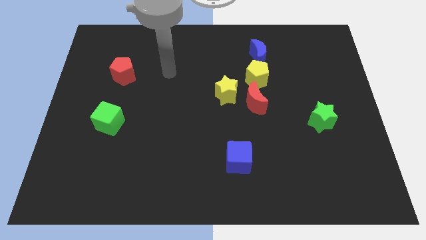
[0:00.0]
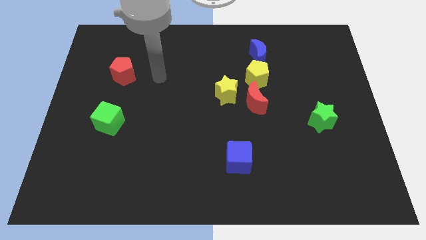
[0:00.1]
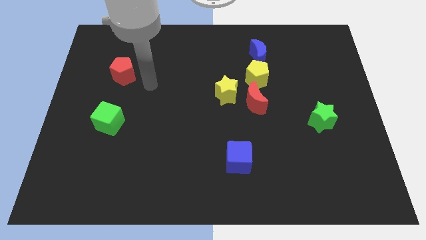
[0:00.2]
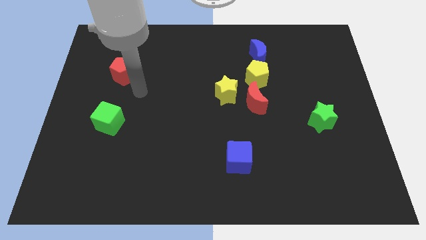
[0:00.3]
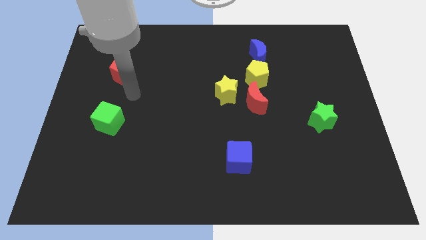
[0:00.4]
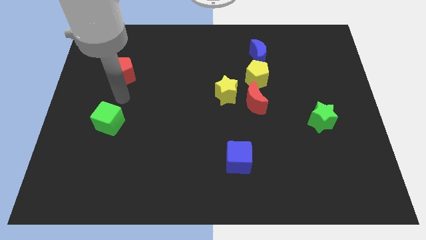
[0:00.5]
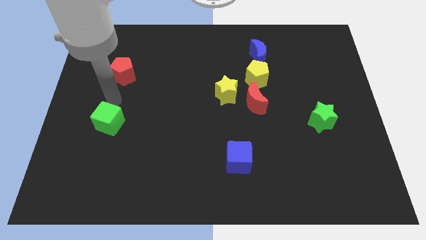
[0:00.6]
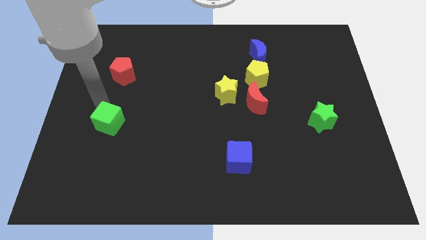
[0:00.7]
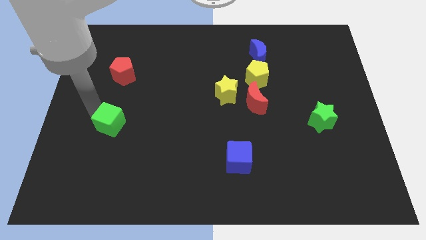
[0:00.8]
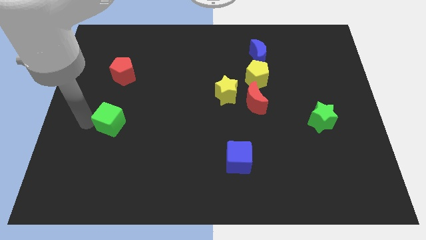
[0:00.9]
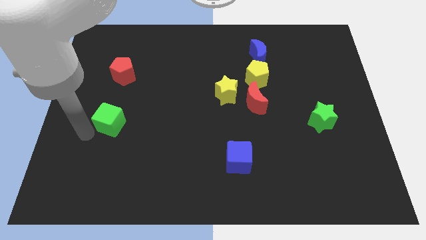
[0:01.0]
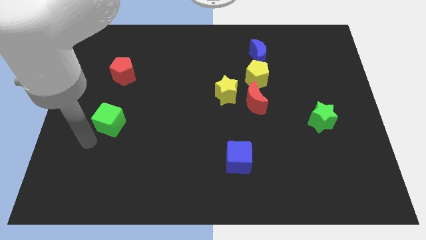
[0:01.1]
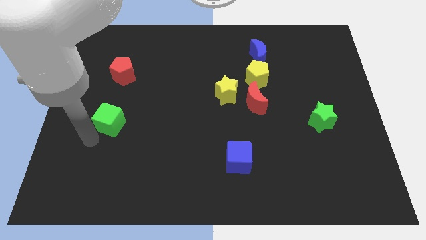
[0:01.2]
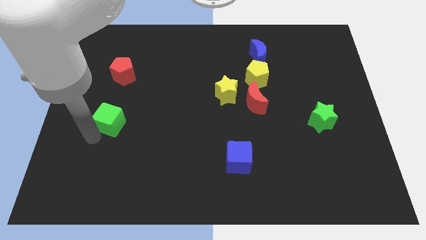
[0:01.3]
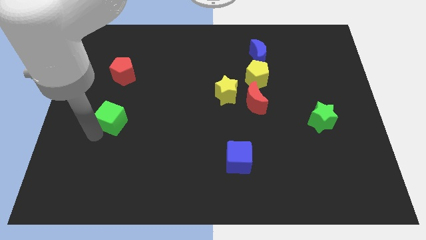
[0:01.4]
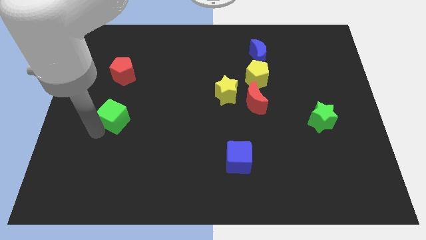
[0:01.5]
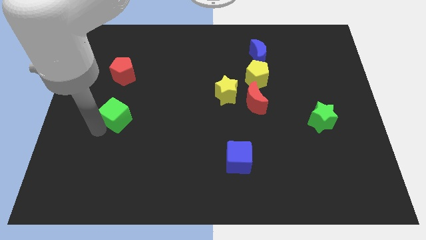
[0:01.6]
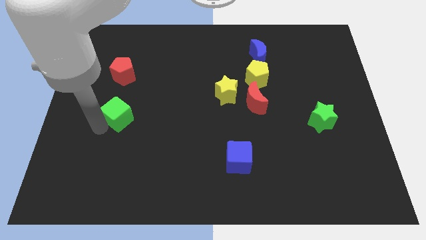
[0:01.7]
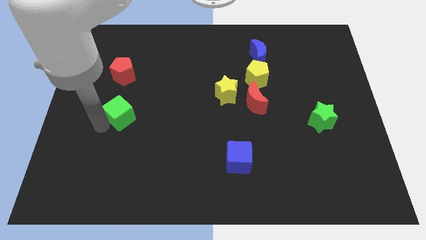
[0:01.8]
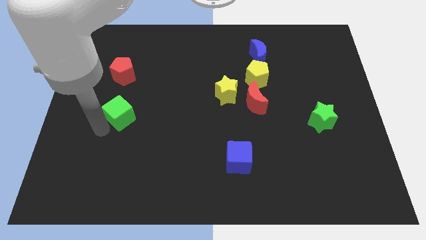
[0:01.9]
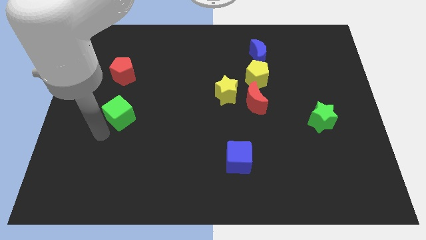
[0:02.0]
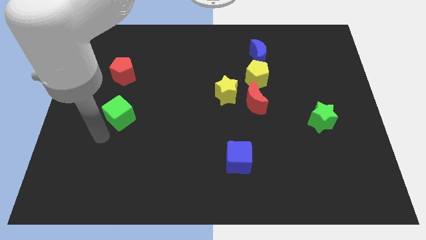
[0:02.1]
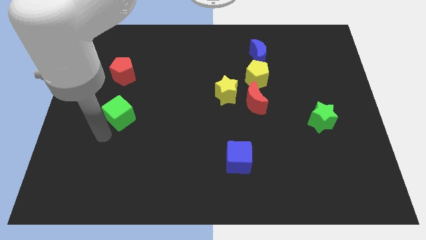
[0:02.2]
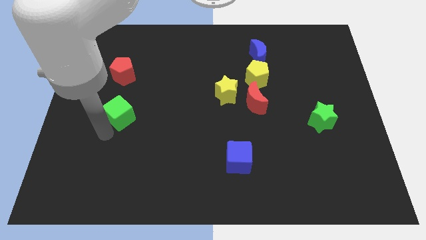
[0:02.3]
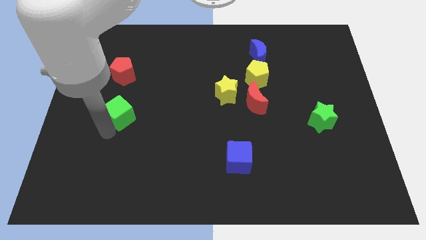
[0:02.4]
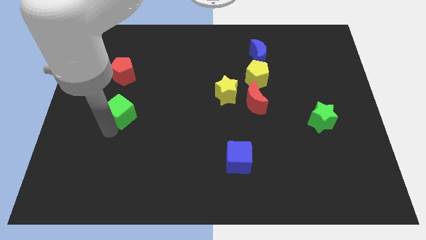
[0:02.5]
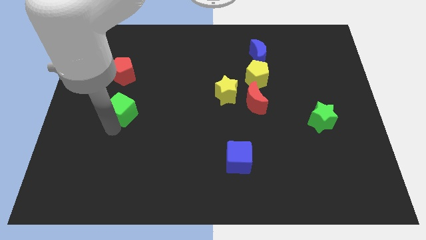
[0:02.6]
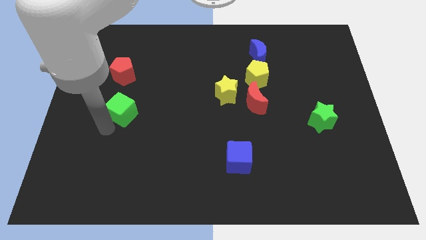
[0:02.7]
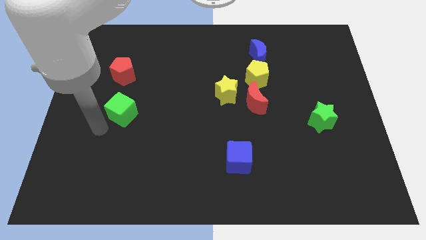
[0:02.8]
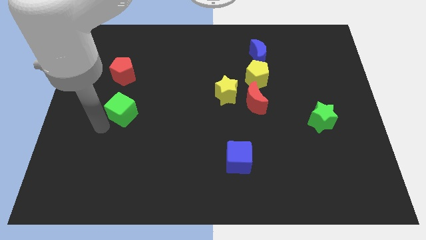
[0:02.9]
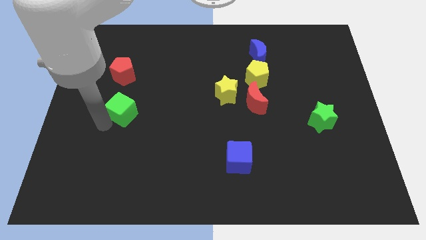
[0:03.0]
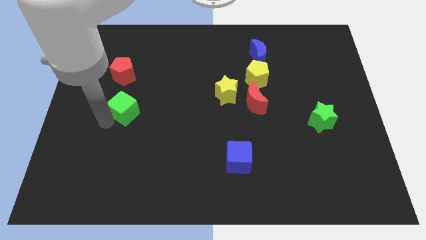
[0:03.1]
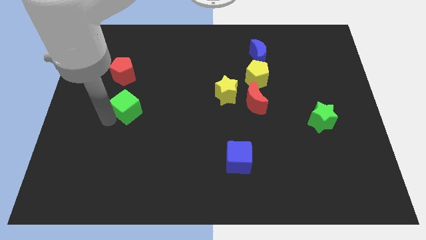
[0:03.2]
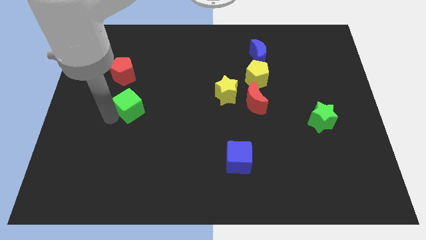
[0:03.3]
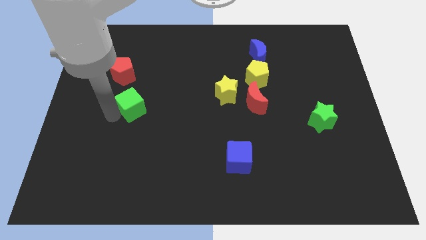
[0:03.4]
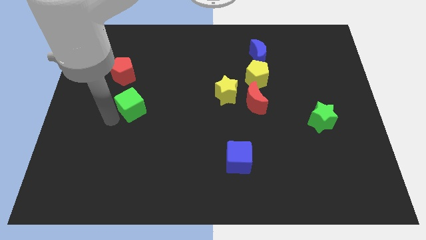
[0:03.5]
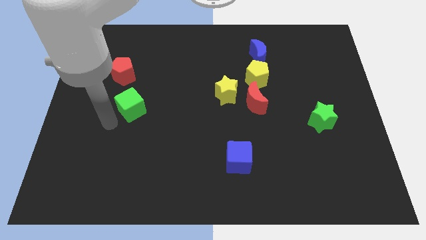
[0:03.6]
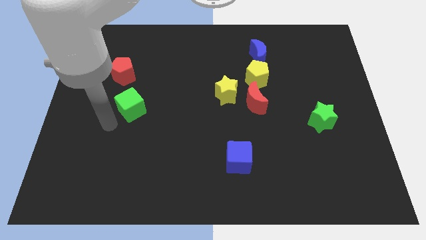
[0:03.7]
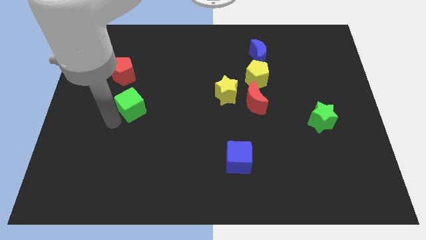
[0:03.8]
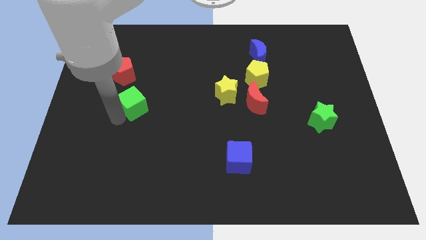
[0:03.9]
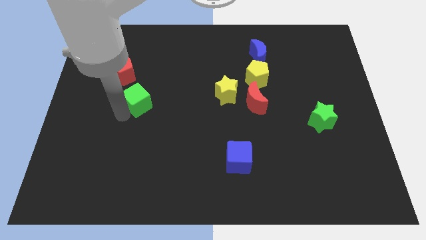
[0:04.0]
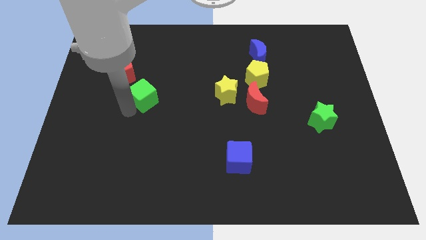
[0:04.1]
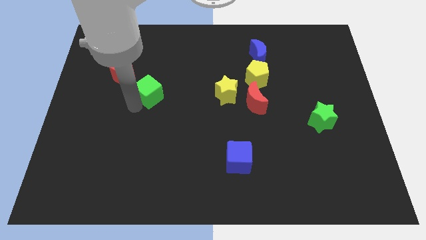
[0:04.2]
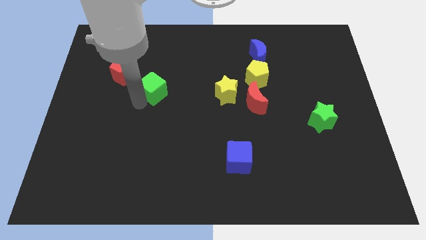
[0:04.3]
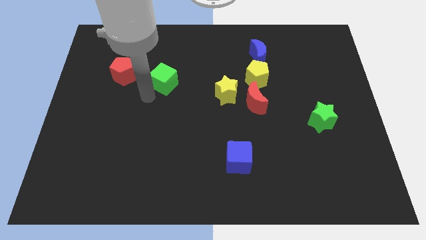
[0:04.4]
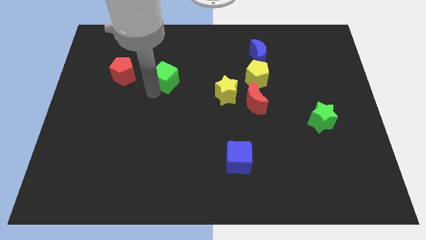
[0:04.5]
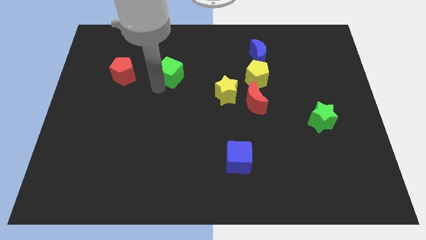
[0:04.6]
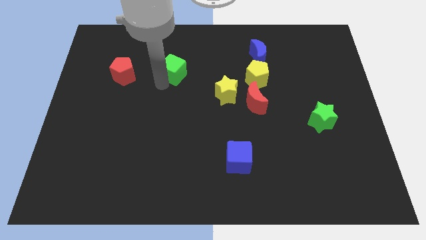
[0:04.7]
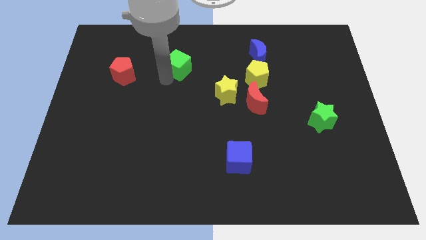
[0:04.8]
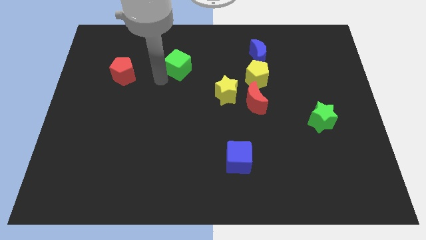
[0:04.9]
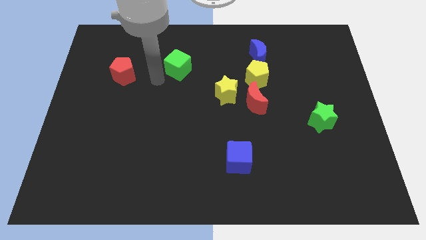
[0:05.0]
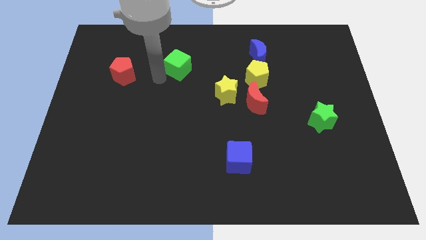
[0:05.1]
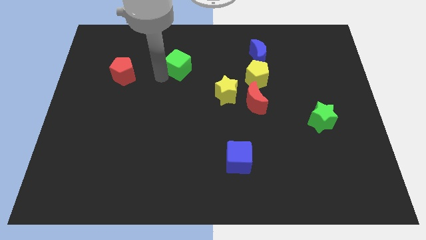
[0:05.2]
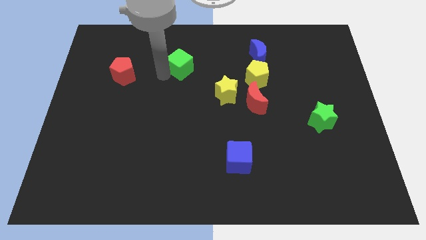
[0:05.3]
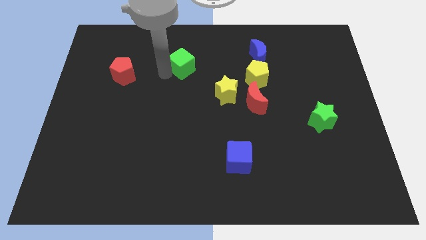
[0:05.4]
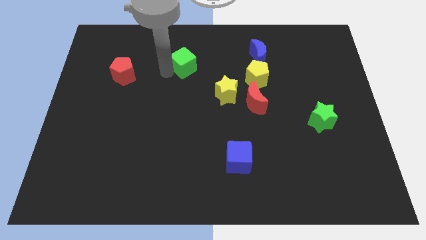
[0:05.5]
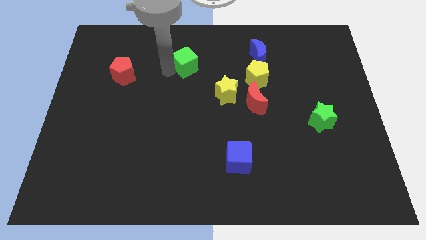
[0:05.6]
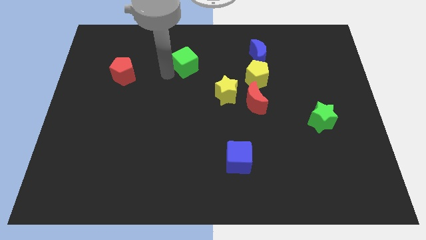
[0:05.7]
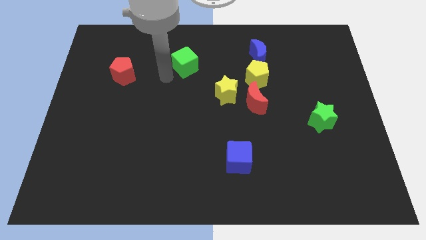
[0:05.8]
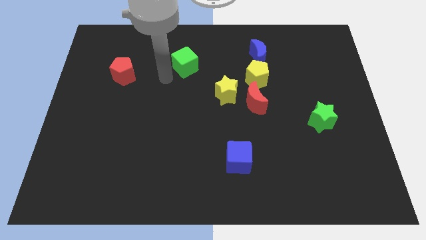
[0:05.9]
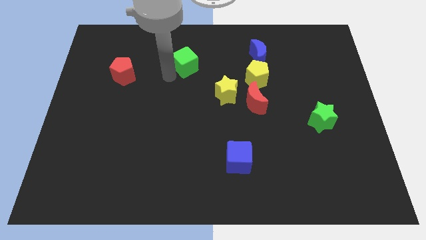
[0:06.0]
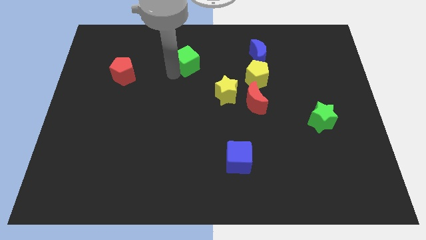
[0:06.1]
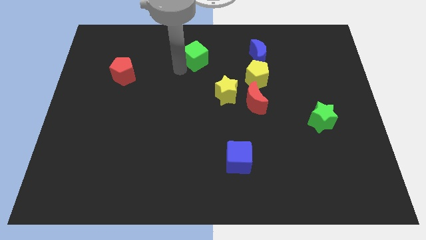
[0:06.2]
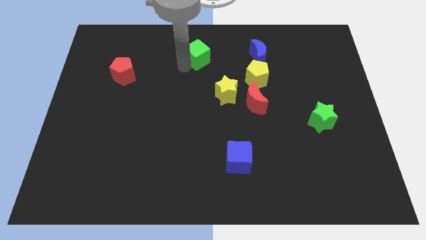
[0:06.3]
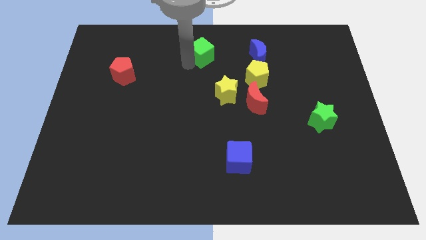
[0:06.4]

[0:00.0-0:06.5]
move the green cube to the towards your base
